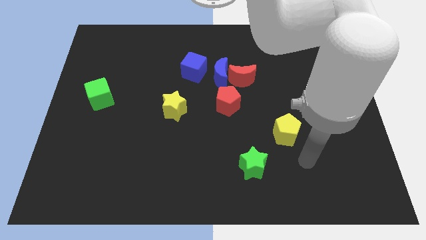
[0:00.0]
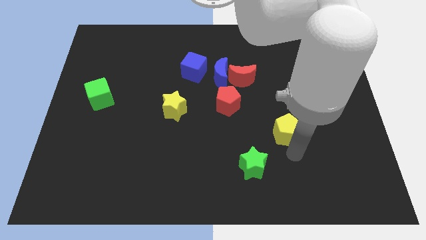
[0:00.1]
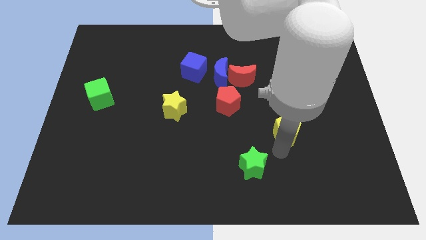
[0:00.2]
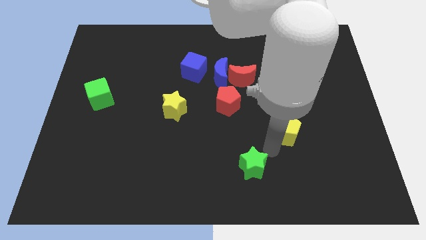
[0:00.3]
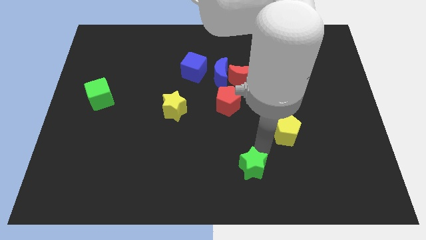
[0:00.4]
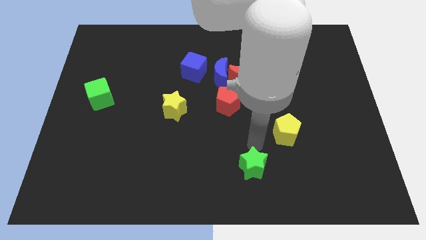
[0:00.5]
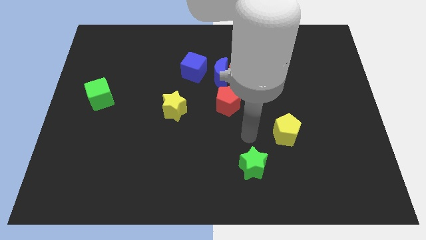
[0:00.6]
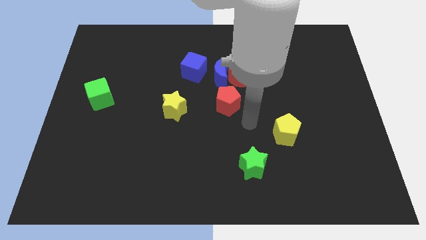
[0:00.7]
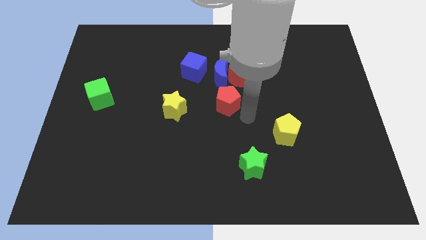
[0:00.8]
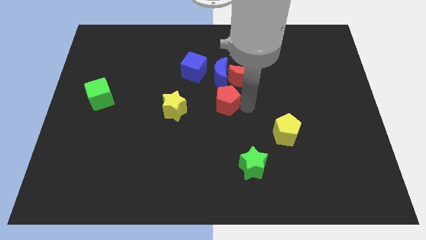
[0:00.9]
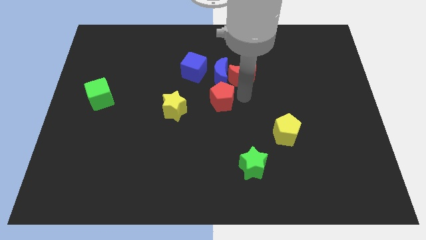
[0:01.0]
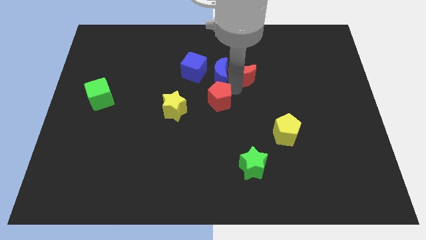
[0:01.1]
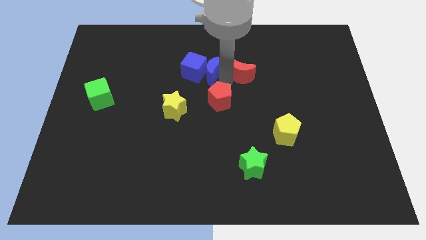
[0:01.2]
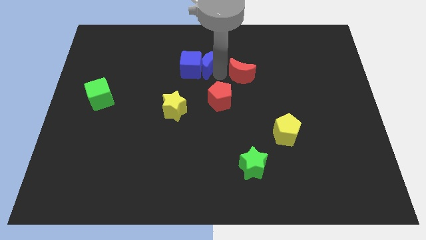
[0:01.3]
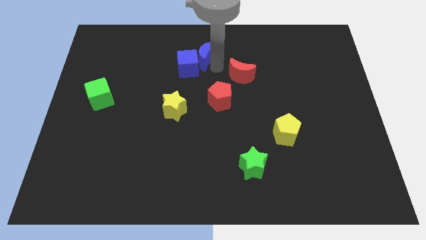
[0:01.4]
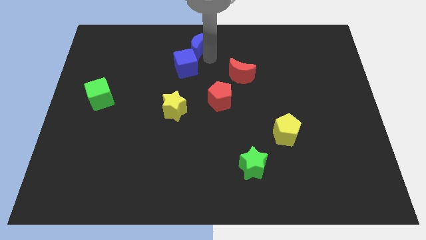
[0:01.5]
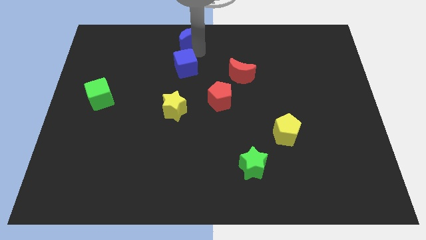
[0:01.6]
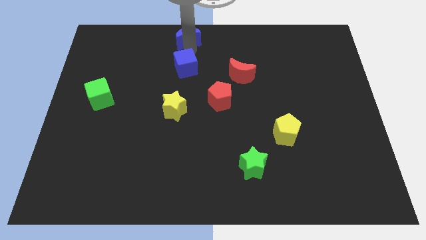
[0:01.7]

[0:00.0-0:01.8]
move the blue cube away from the blue moon

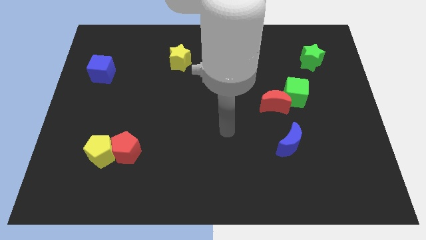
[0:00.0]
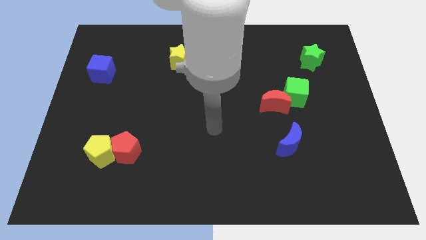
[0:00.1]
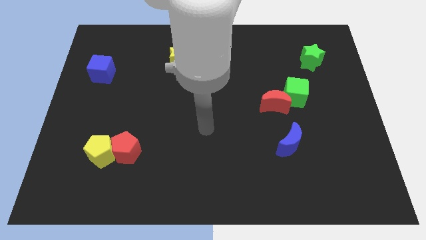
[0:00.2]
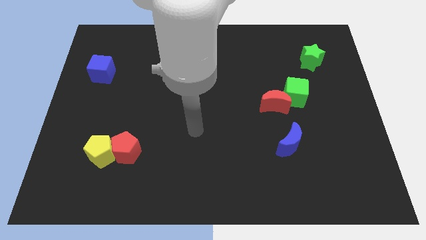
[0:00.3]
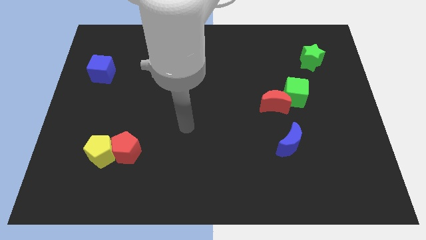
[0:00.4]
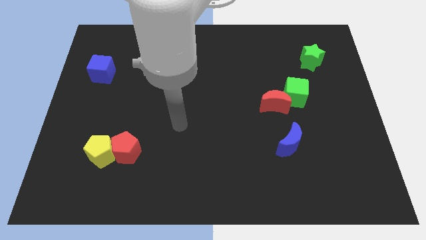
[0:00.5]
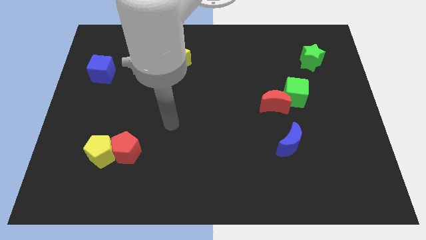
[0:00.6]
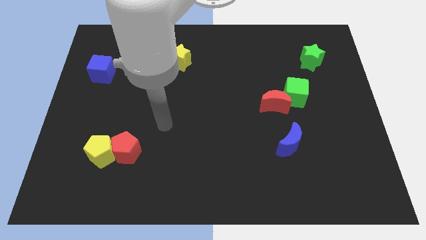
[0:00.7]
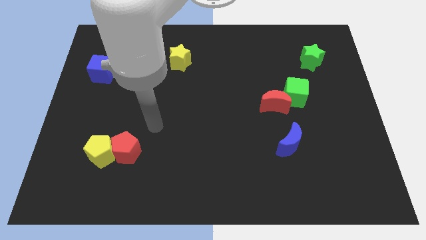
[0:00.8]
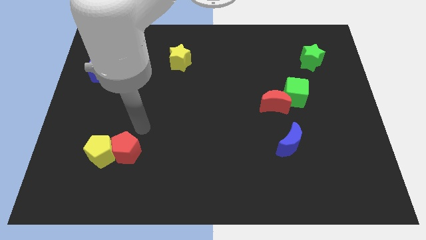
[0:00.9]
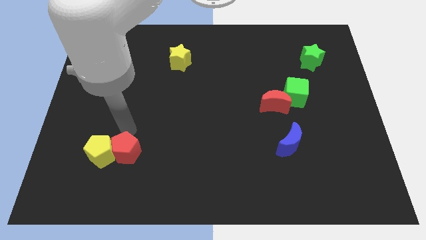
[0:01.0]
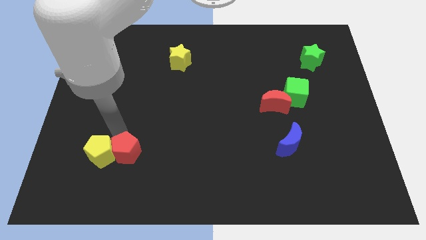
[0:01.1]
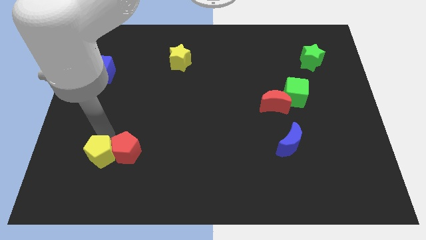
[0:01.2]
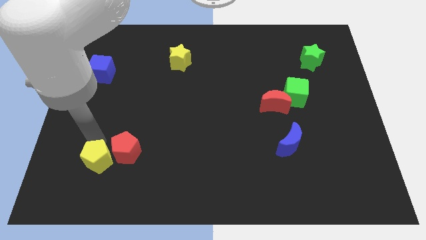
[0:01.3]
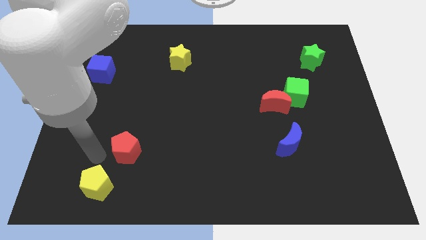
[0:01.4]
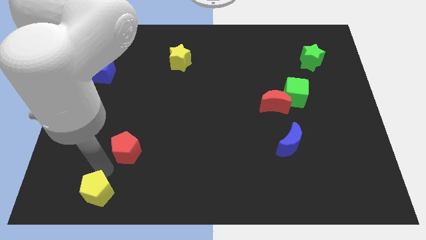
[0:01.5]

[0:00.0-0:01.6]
pull the red pentagon apart from the yellow pentagon

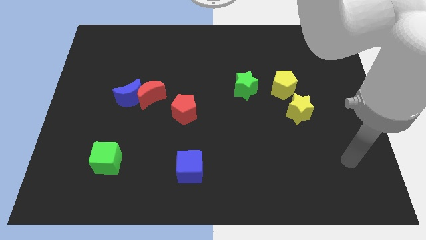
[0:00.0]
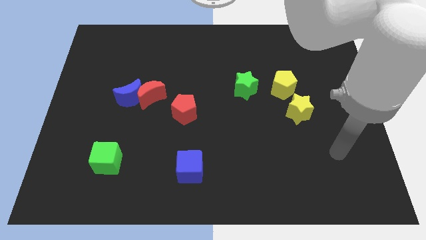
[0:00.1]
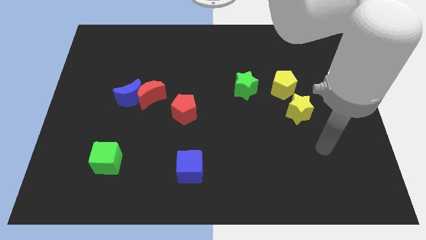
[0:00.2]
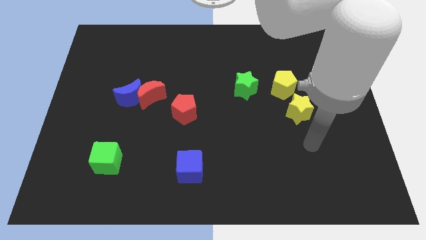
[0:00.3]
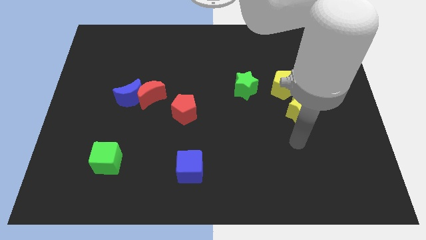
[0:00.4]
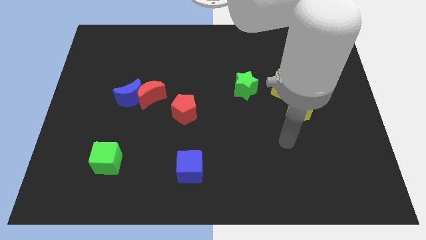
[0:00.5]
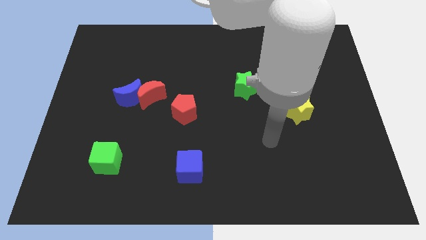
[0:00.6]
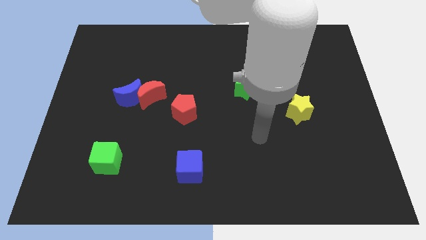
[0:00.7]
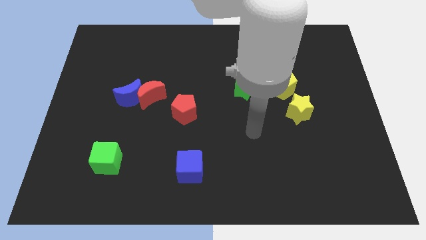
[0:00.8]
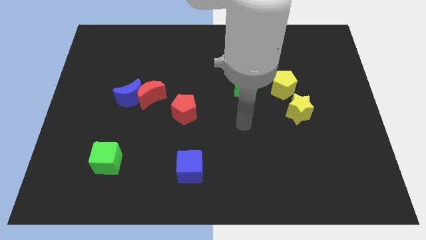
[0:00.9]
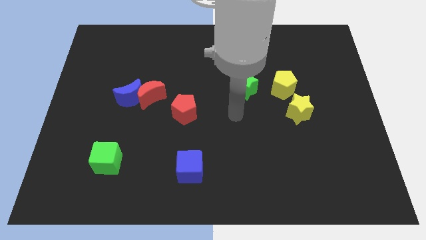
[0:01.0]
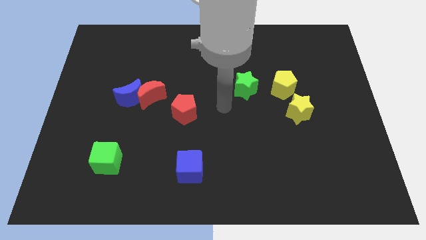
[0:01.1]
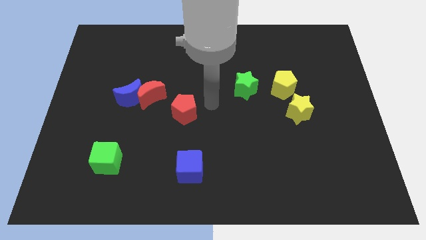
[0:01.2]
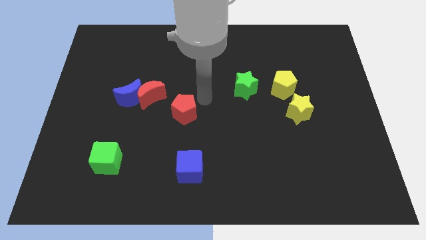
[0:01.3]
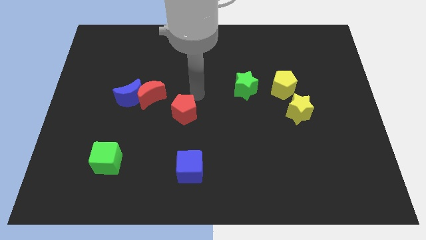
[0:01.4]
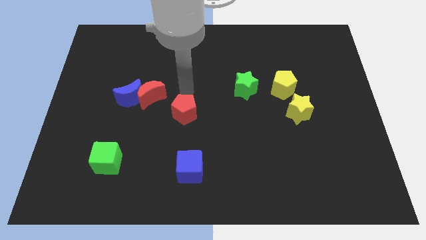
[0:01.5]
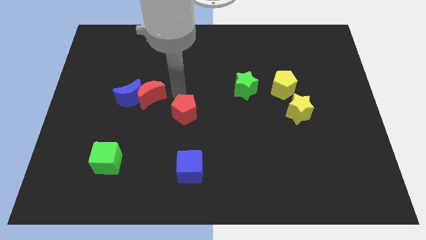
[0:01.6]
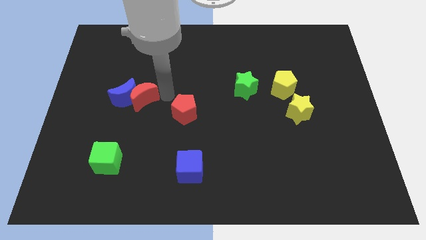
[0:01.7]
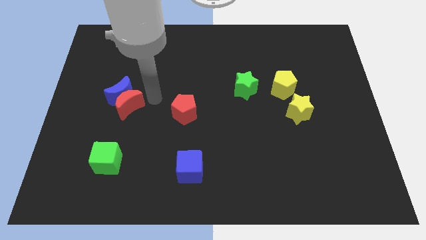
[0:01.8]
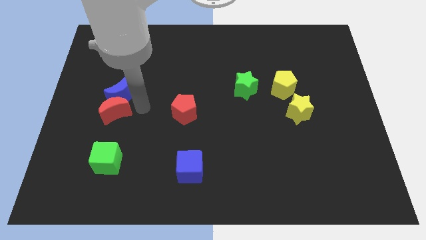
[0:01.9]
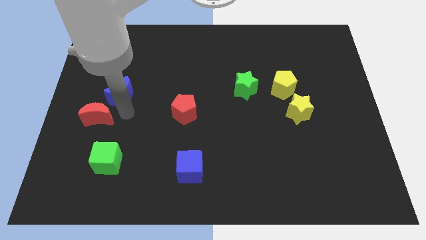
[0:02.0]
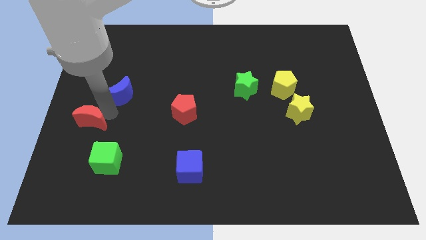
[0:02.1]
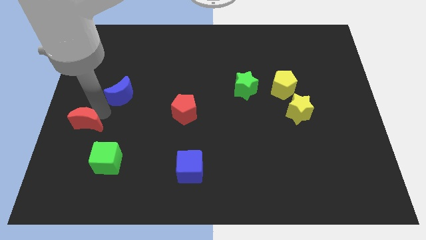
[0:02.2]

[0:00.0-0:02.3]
pull the blue moon apart from the red moon

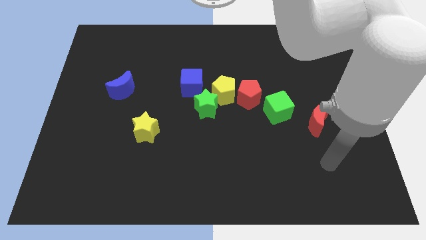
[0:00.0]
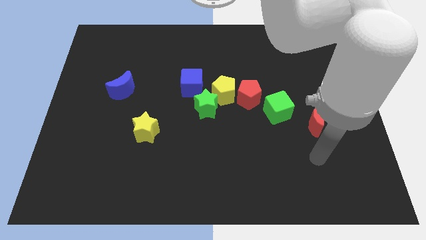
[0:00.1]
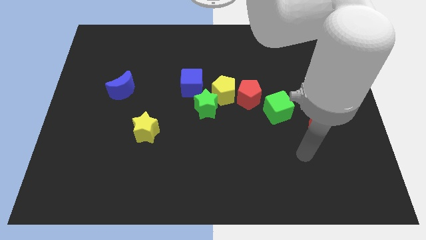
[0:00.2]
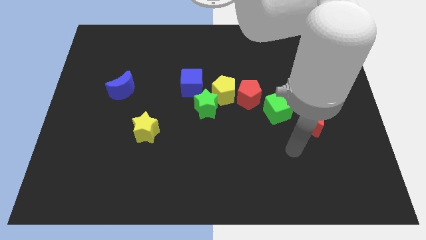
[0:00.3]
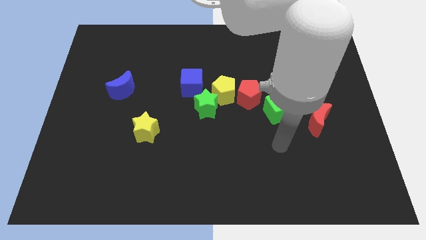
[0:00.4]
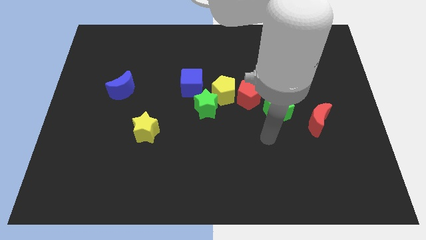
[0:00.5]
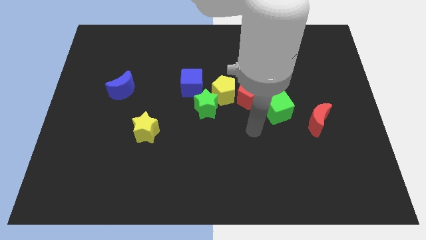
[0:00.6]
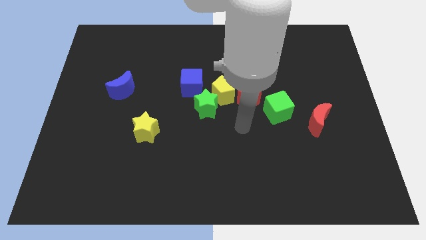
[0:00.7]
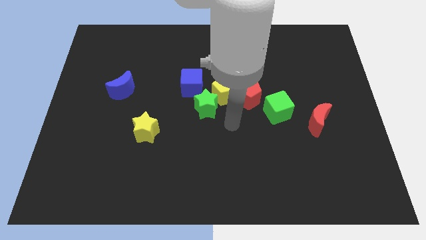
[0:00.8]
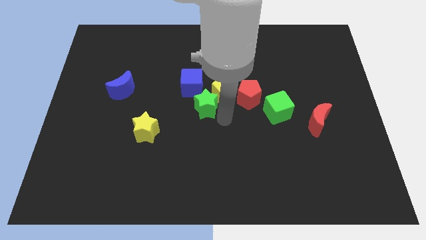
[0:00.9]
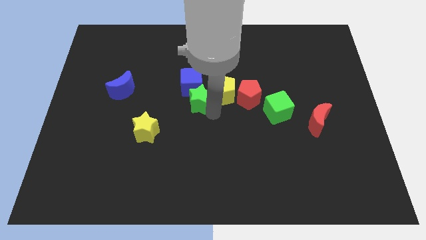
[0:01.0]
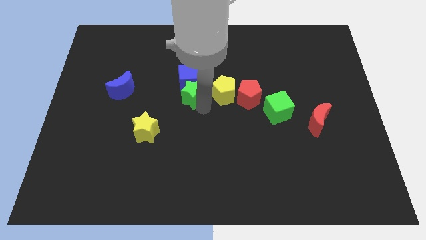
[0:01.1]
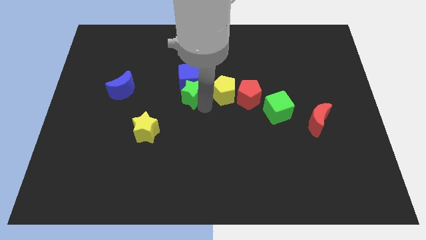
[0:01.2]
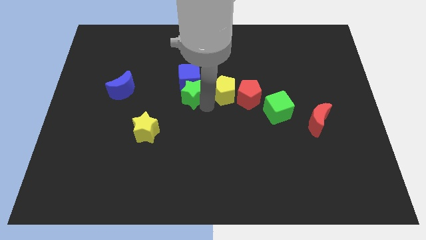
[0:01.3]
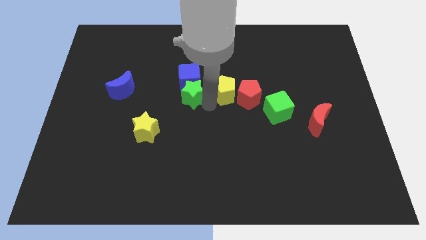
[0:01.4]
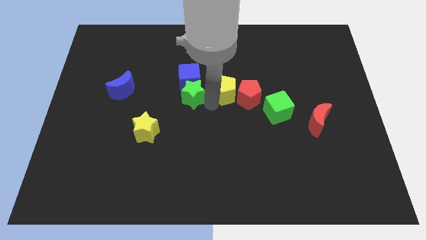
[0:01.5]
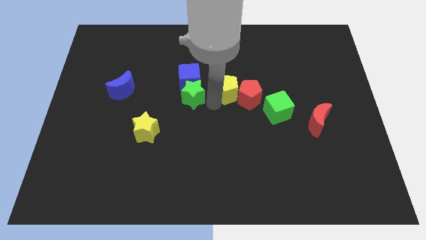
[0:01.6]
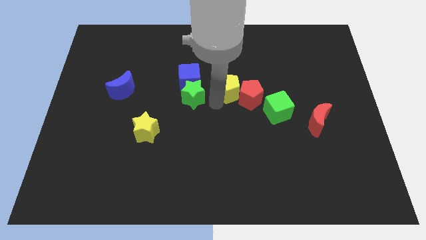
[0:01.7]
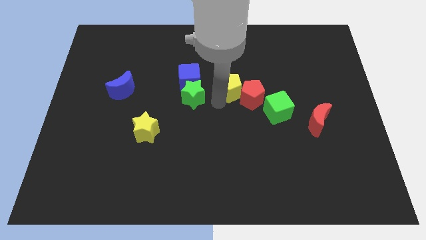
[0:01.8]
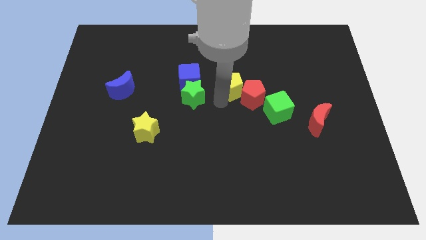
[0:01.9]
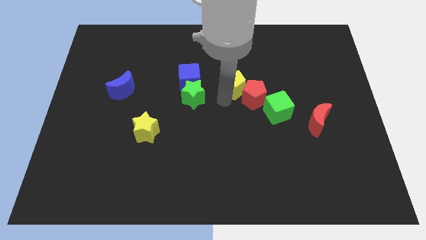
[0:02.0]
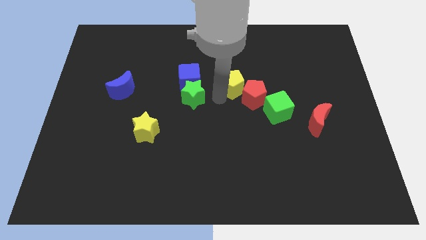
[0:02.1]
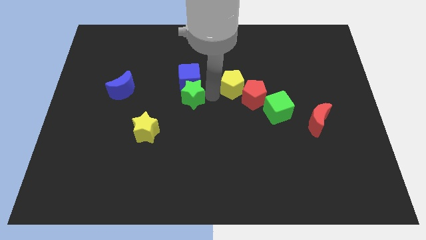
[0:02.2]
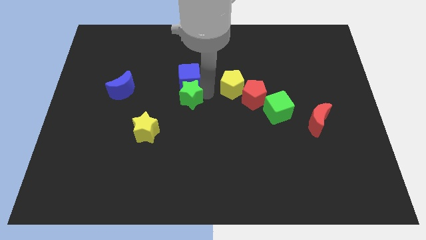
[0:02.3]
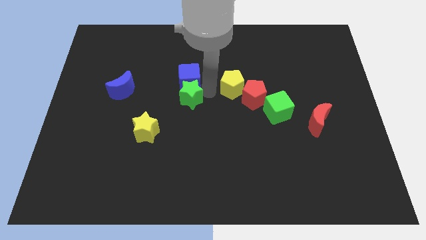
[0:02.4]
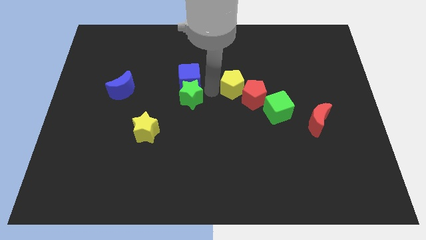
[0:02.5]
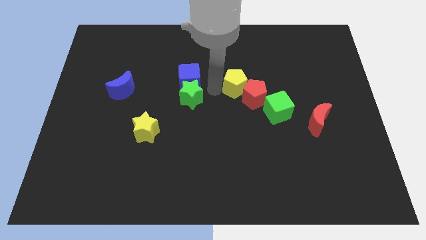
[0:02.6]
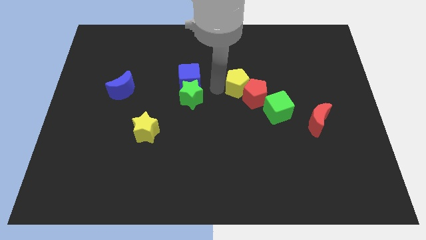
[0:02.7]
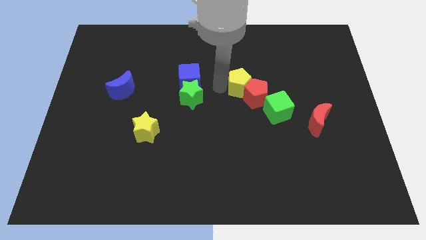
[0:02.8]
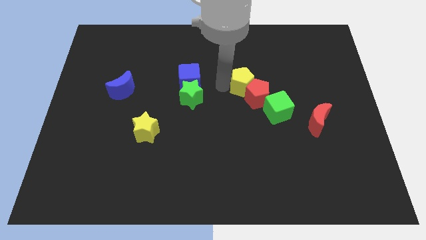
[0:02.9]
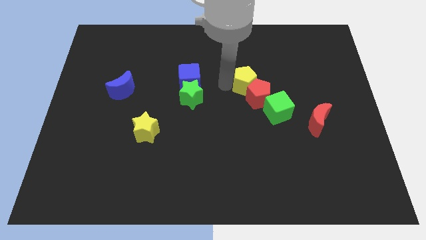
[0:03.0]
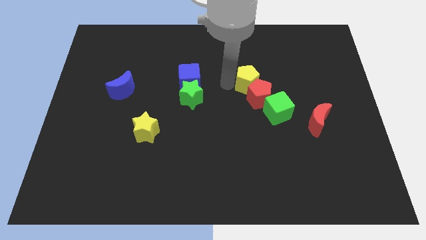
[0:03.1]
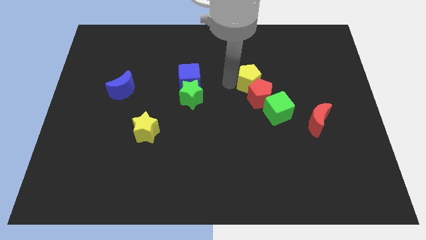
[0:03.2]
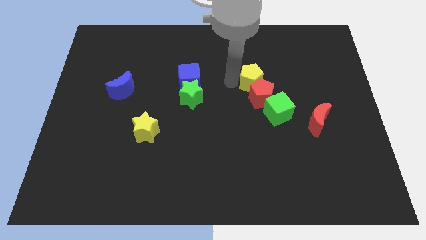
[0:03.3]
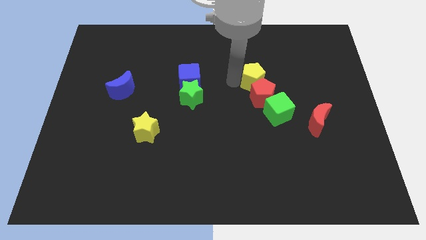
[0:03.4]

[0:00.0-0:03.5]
move the yellow pentagon away from the group

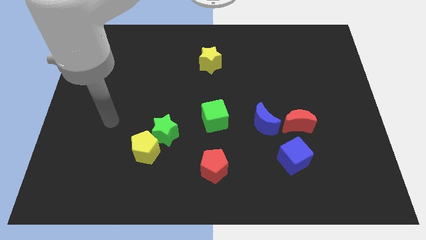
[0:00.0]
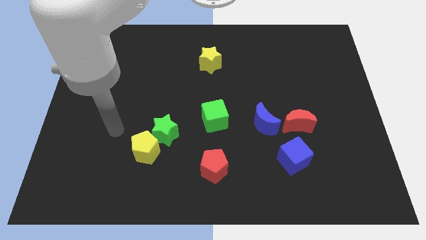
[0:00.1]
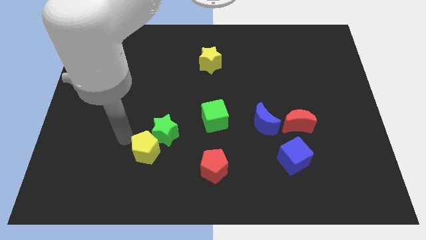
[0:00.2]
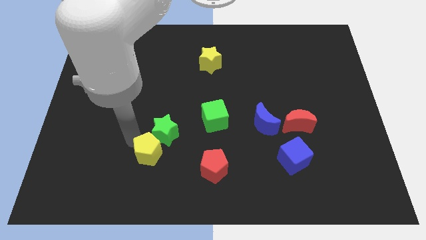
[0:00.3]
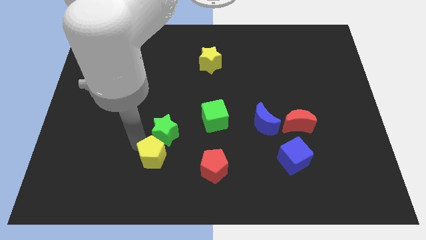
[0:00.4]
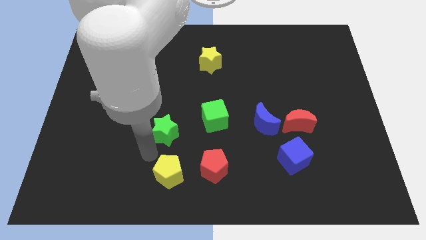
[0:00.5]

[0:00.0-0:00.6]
pull the green star apart from the yellow pentagon
